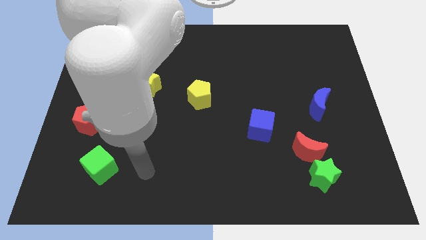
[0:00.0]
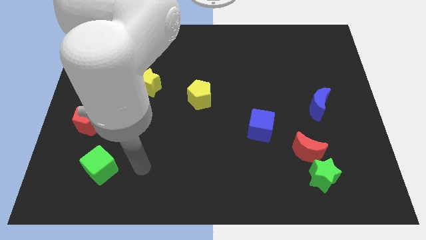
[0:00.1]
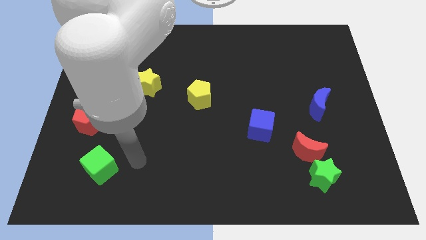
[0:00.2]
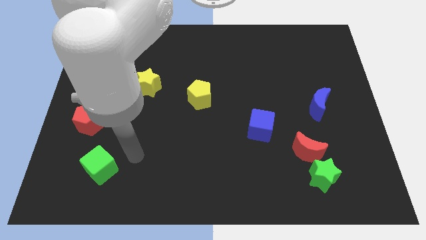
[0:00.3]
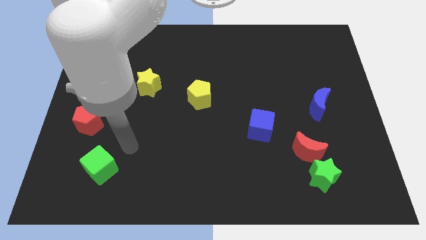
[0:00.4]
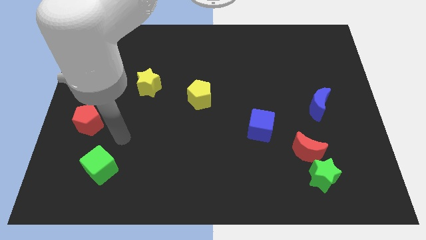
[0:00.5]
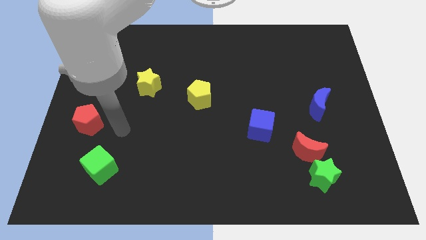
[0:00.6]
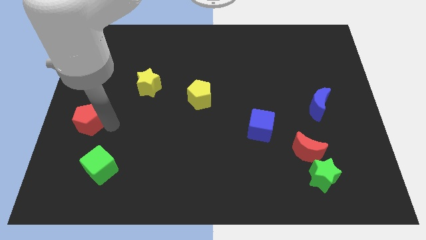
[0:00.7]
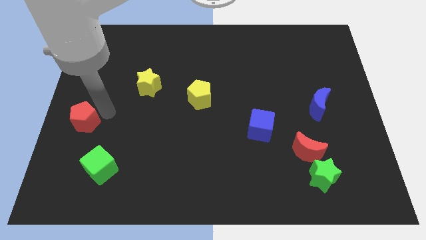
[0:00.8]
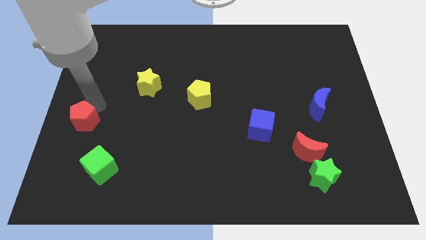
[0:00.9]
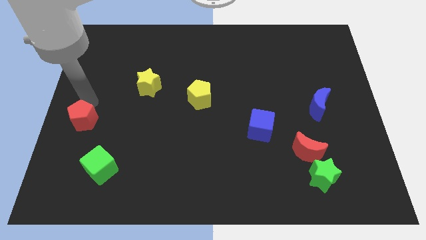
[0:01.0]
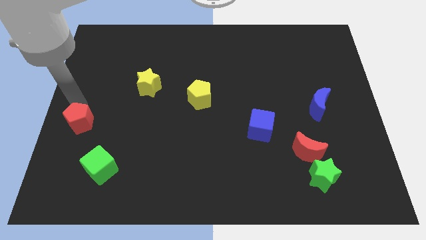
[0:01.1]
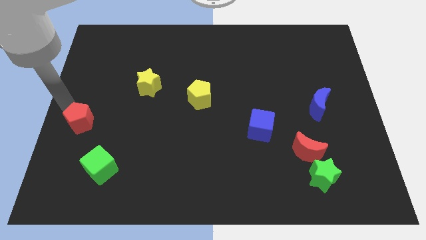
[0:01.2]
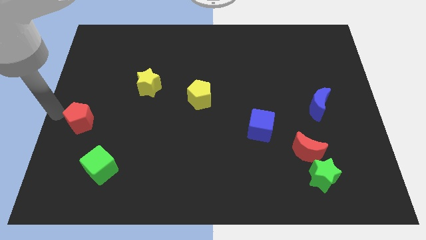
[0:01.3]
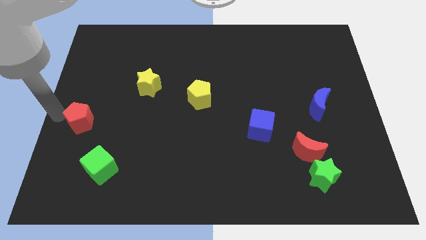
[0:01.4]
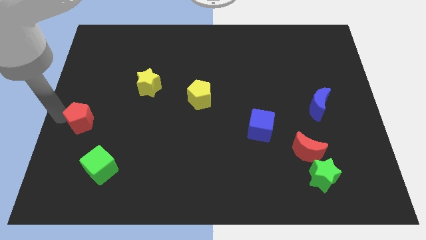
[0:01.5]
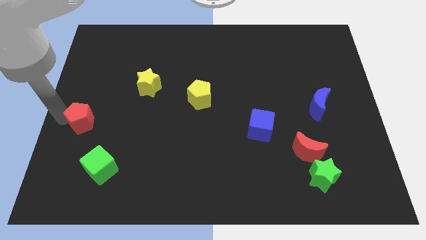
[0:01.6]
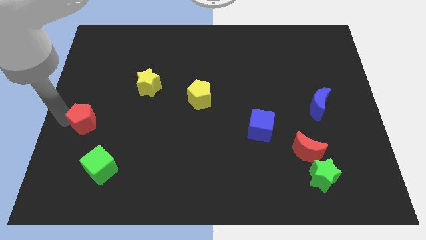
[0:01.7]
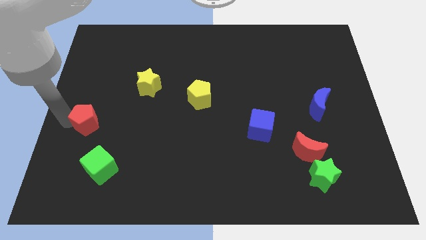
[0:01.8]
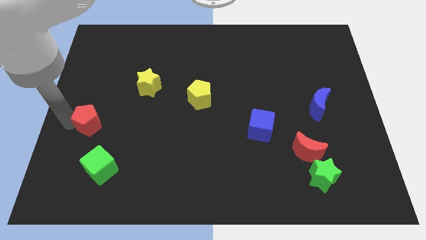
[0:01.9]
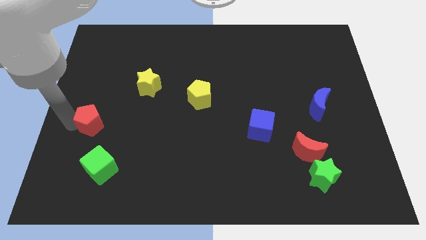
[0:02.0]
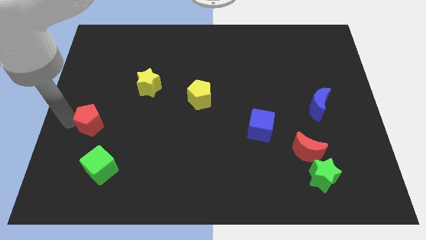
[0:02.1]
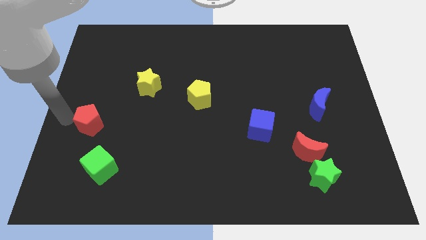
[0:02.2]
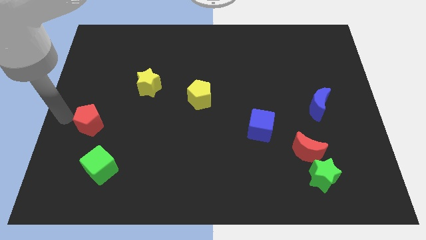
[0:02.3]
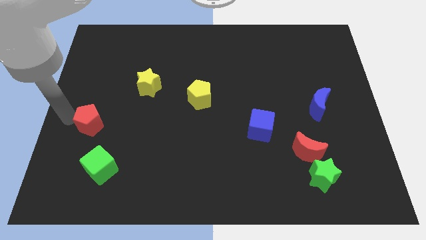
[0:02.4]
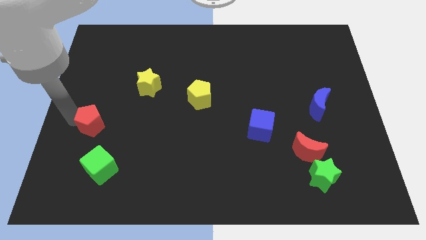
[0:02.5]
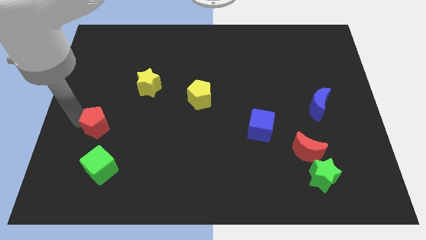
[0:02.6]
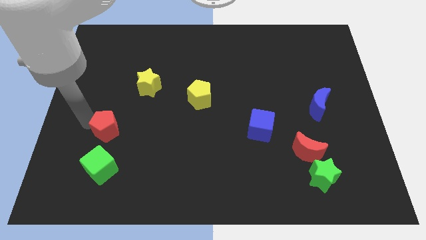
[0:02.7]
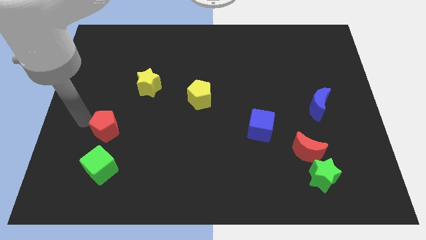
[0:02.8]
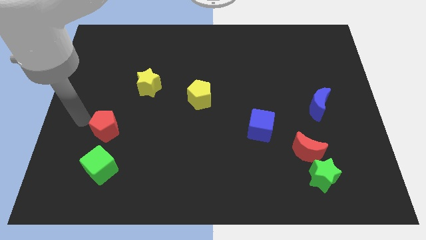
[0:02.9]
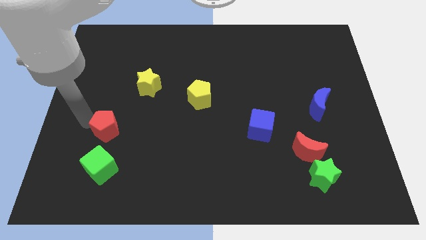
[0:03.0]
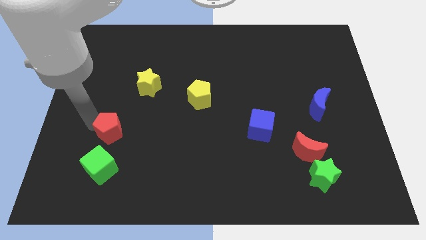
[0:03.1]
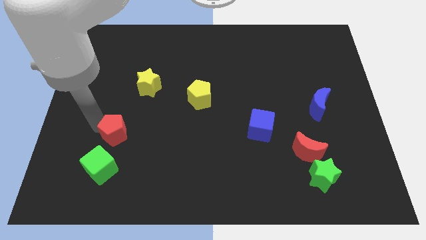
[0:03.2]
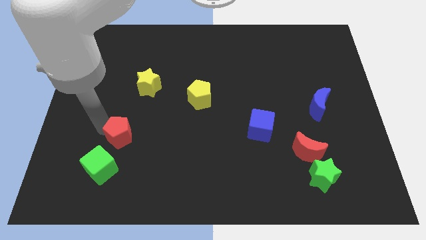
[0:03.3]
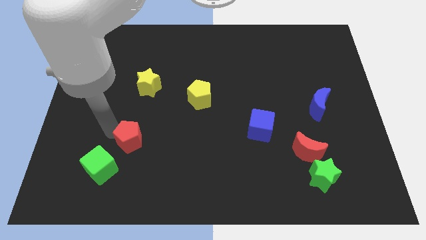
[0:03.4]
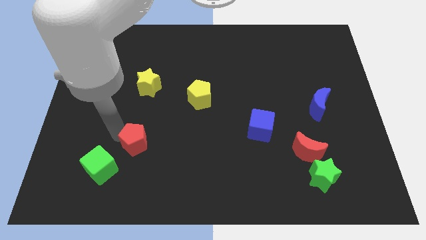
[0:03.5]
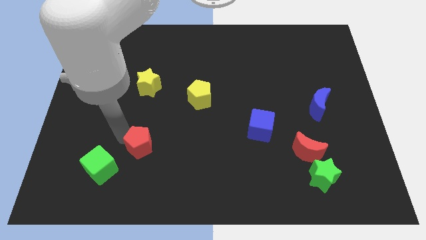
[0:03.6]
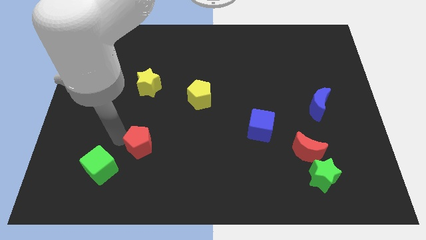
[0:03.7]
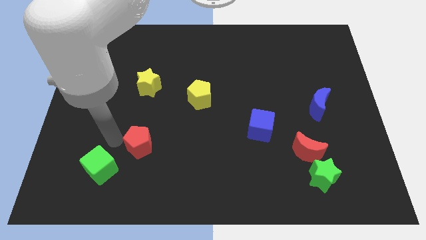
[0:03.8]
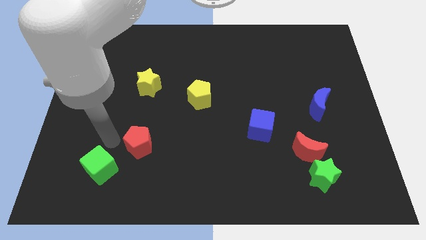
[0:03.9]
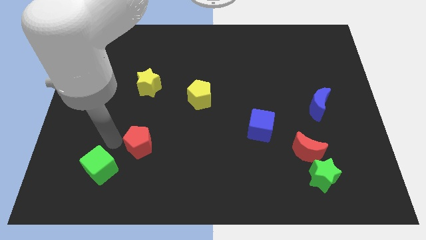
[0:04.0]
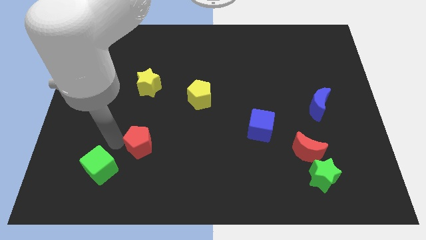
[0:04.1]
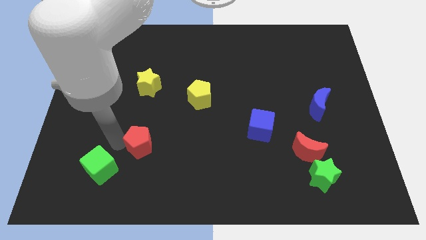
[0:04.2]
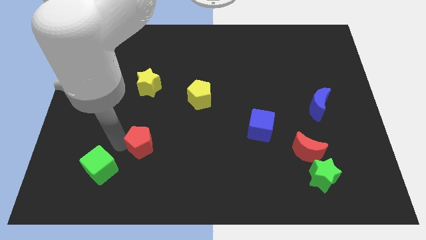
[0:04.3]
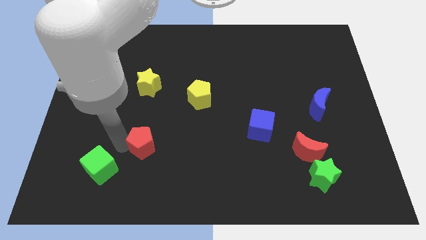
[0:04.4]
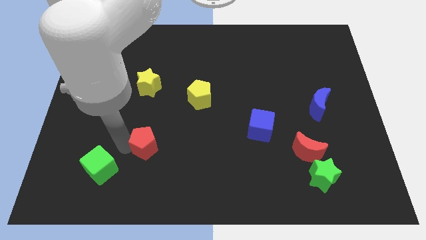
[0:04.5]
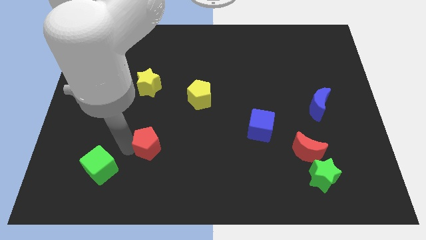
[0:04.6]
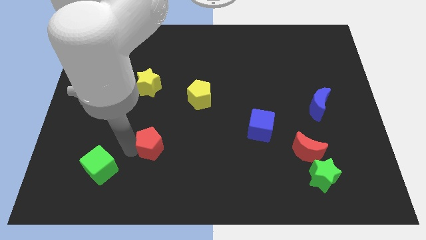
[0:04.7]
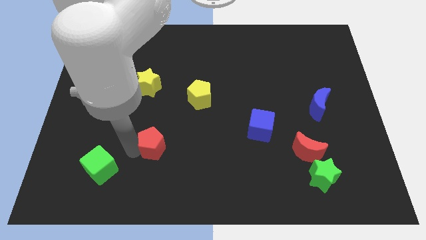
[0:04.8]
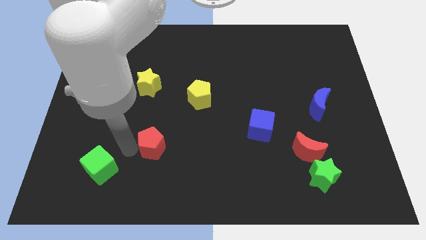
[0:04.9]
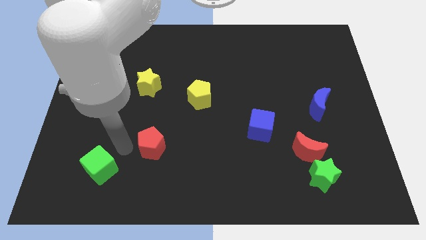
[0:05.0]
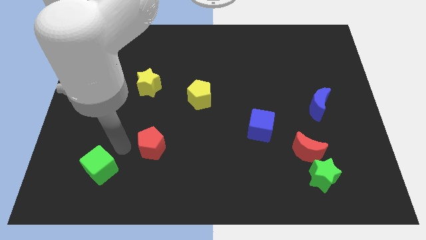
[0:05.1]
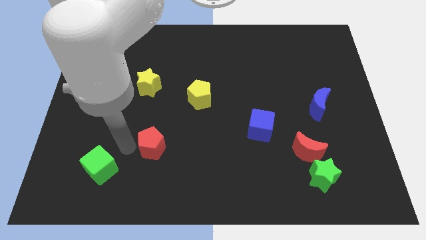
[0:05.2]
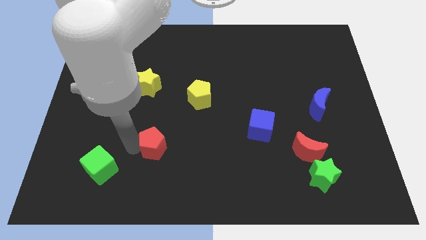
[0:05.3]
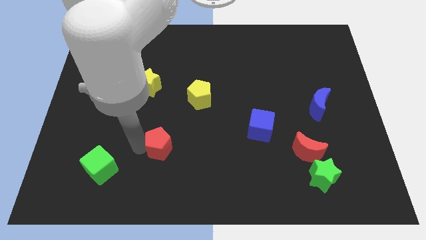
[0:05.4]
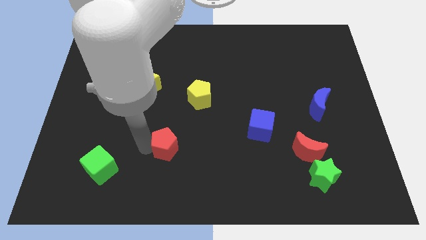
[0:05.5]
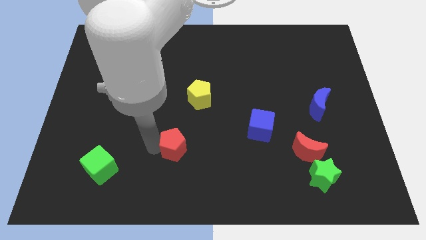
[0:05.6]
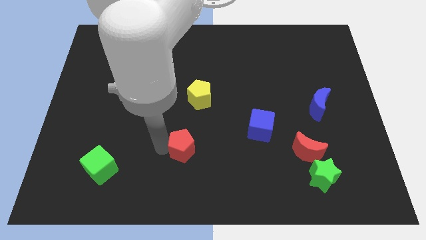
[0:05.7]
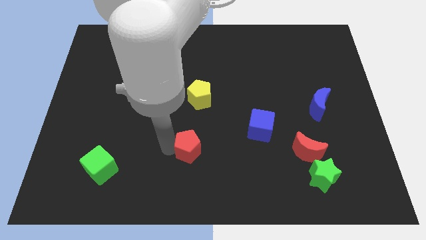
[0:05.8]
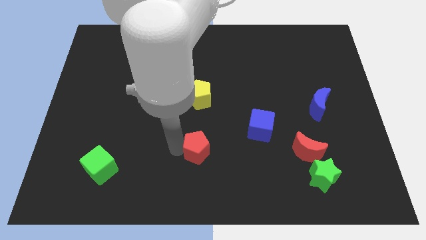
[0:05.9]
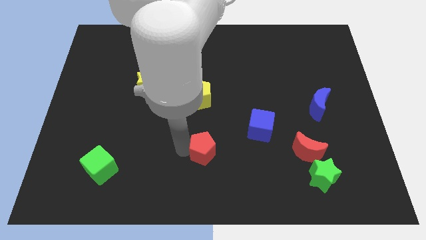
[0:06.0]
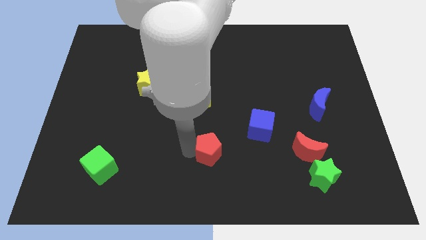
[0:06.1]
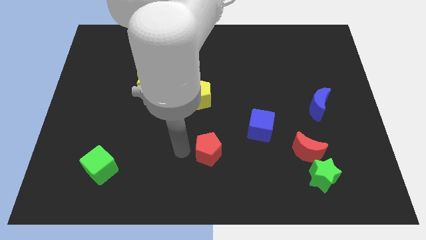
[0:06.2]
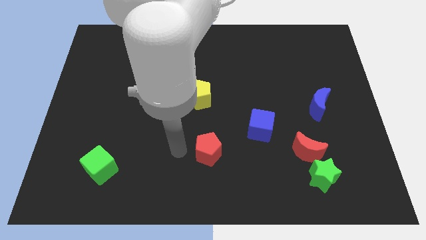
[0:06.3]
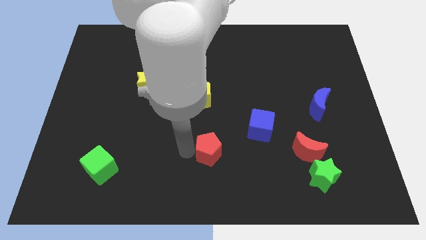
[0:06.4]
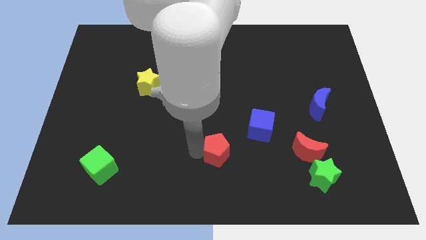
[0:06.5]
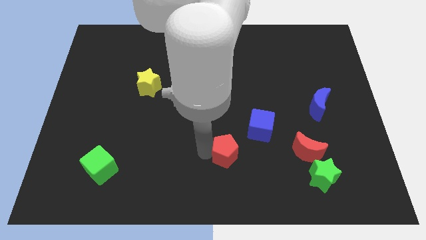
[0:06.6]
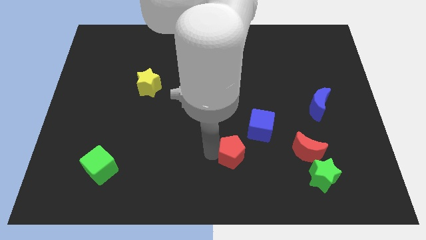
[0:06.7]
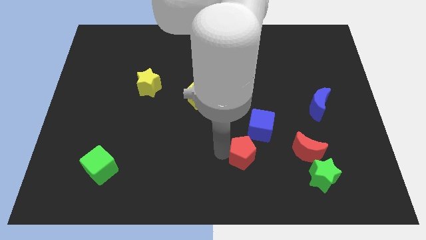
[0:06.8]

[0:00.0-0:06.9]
slide the red pentagon below the blue cube

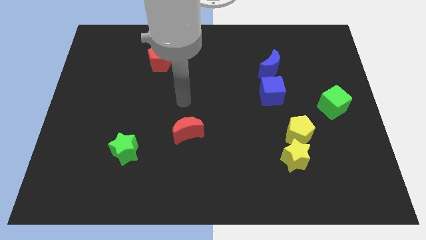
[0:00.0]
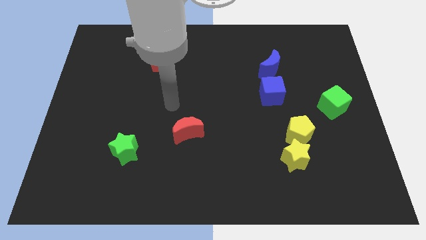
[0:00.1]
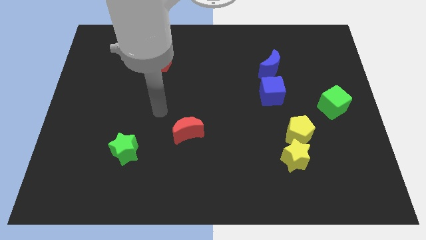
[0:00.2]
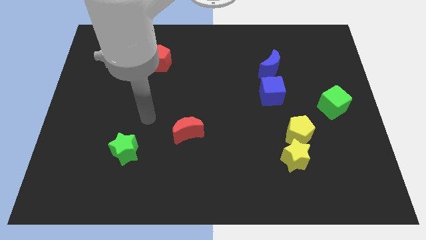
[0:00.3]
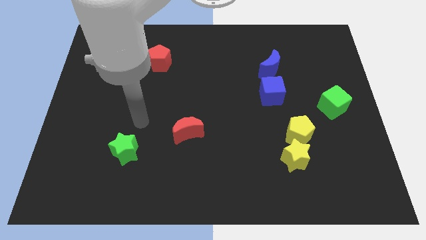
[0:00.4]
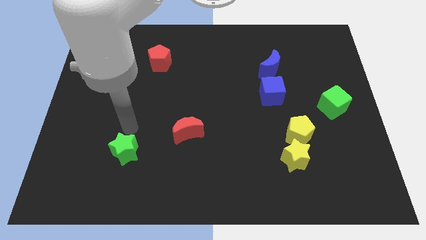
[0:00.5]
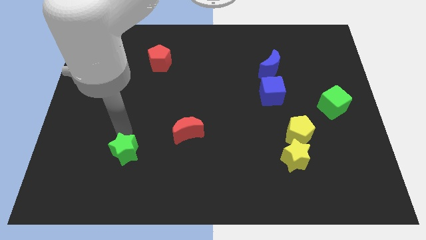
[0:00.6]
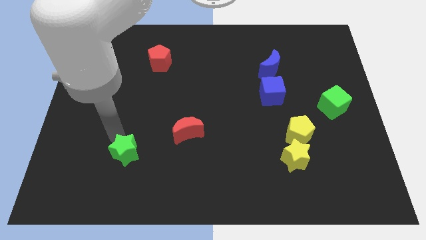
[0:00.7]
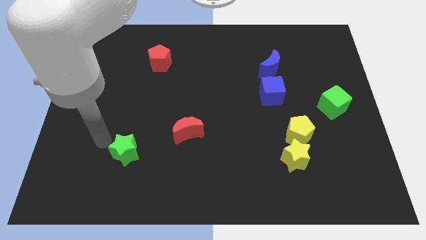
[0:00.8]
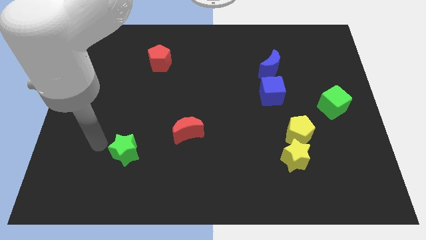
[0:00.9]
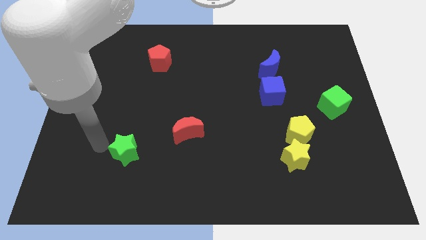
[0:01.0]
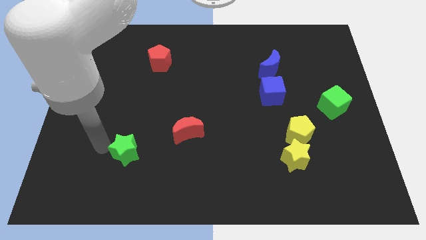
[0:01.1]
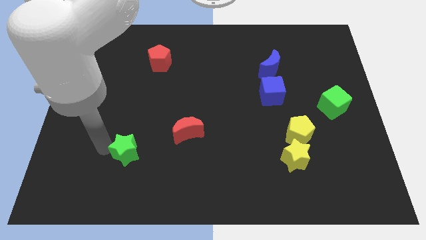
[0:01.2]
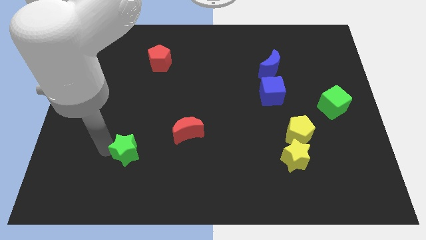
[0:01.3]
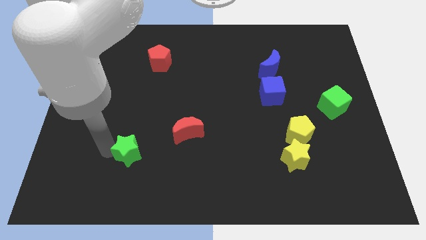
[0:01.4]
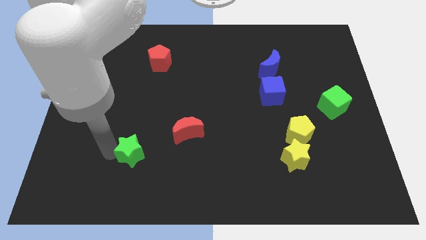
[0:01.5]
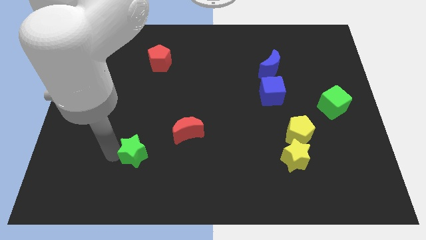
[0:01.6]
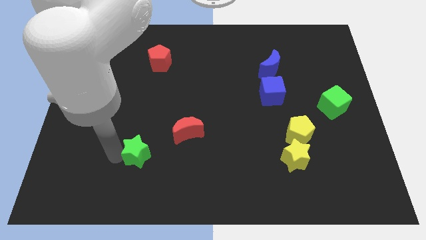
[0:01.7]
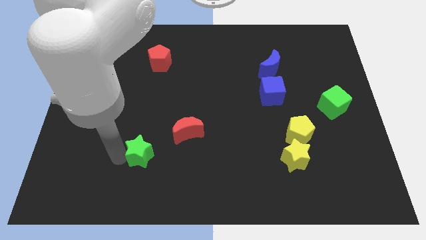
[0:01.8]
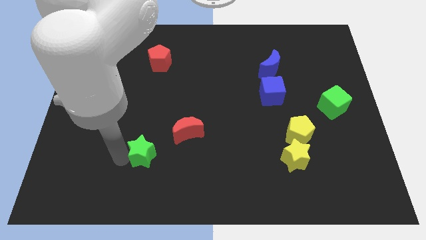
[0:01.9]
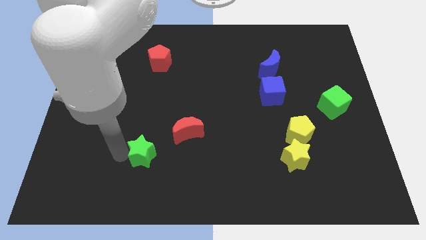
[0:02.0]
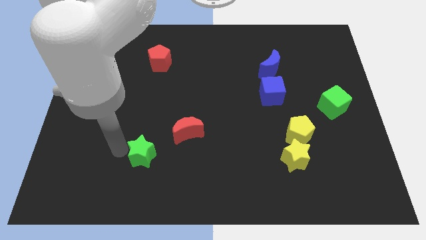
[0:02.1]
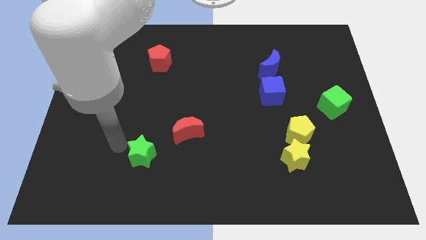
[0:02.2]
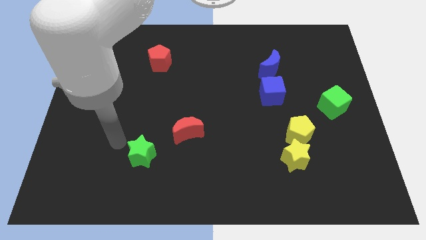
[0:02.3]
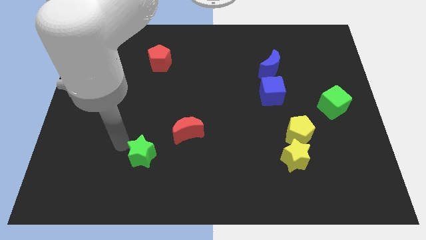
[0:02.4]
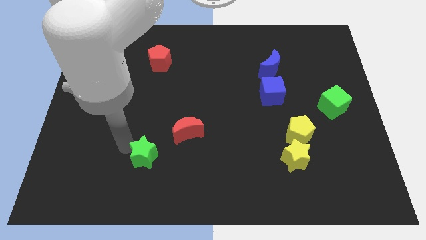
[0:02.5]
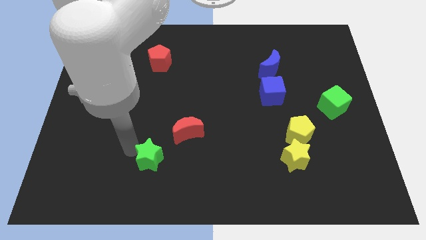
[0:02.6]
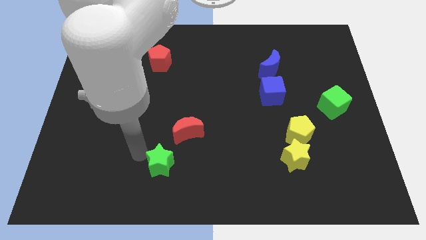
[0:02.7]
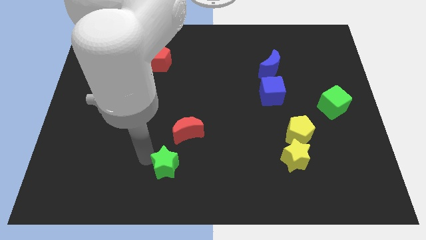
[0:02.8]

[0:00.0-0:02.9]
slide the green star below the red moon
